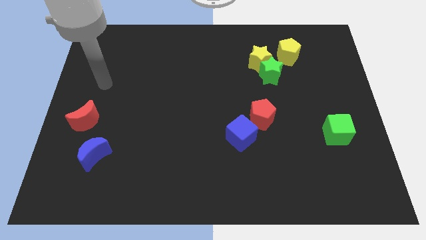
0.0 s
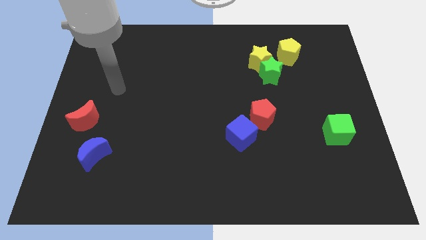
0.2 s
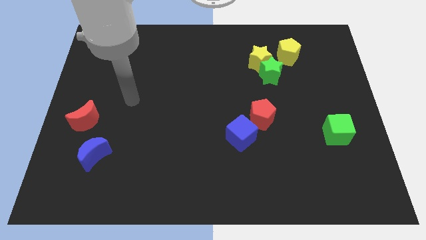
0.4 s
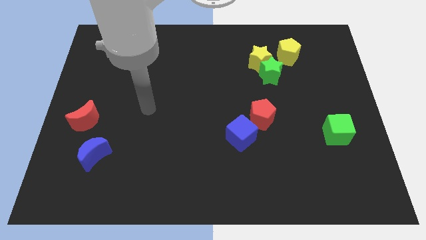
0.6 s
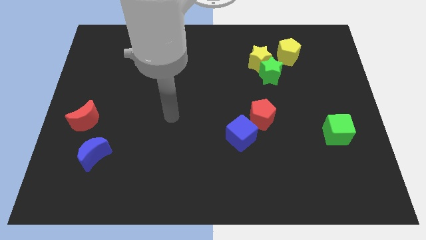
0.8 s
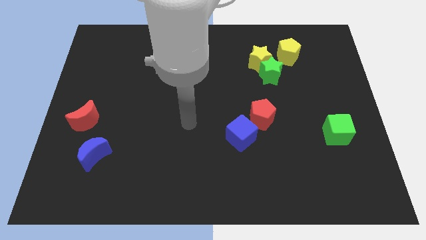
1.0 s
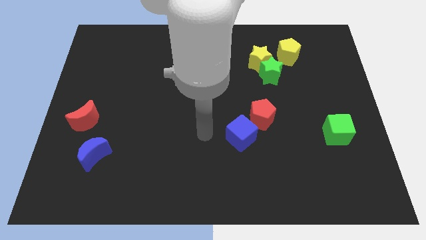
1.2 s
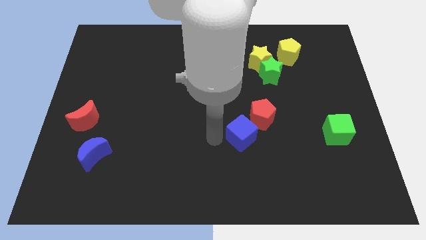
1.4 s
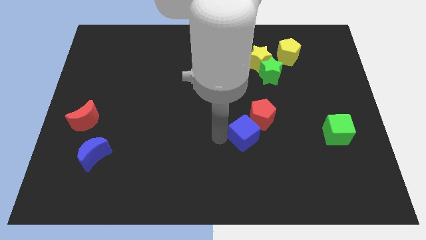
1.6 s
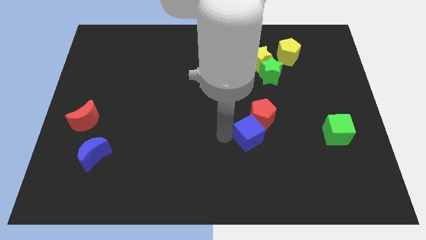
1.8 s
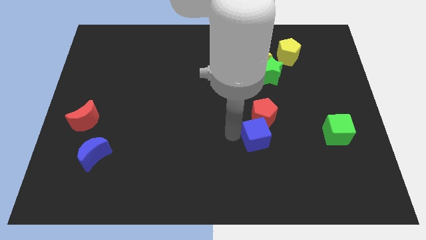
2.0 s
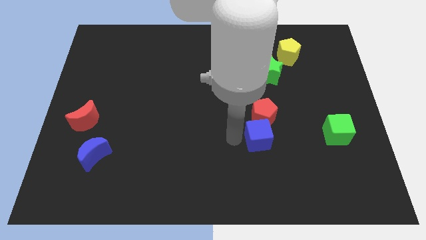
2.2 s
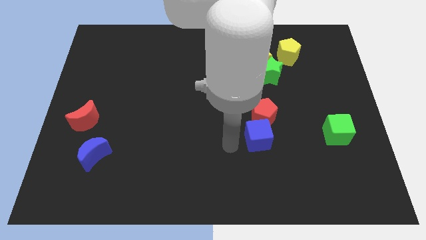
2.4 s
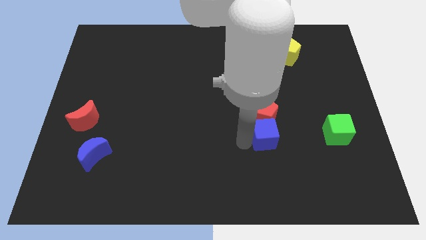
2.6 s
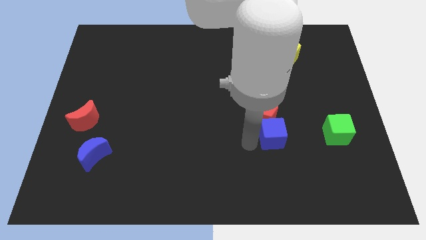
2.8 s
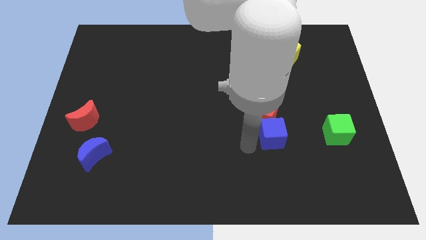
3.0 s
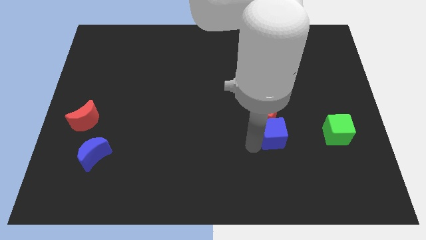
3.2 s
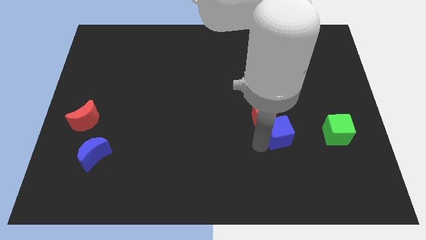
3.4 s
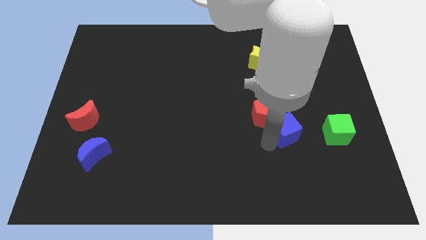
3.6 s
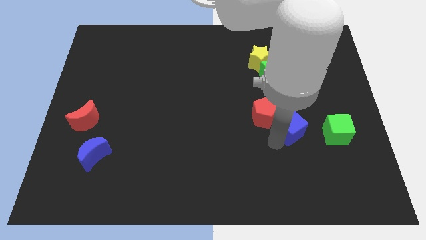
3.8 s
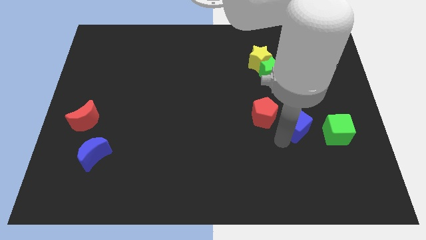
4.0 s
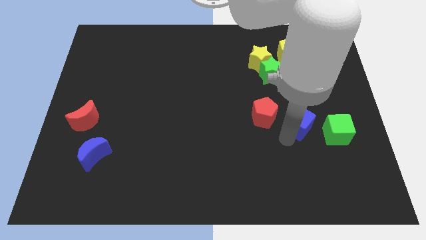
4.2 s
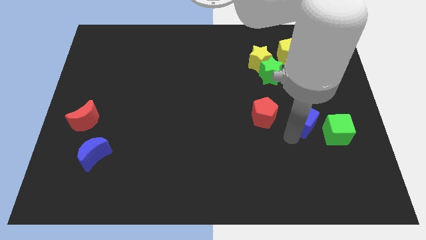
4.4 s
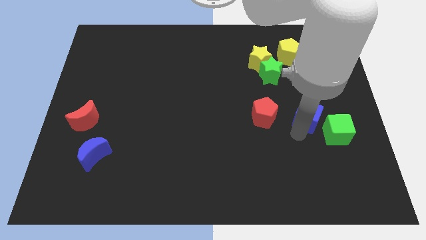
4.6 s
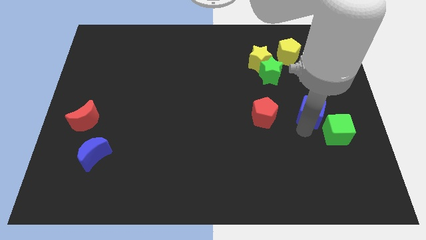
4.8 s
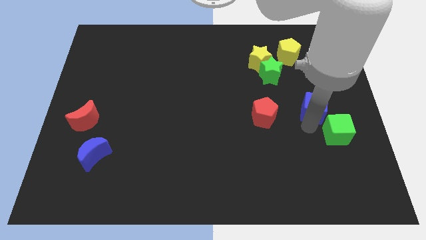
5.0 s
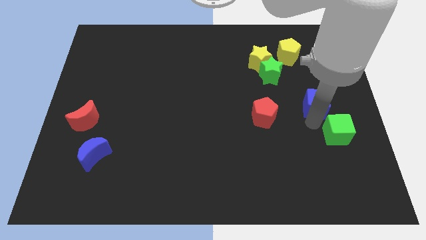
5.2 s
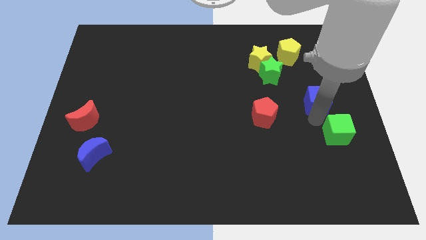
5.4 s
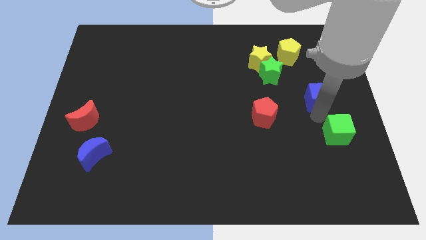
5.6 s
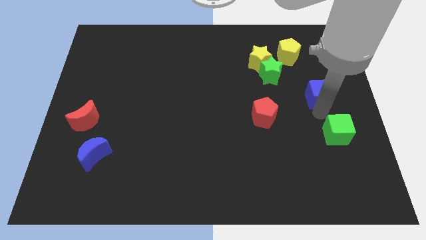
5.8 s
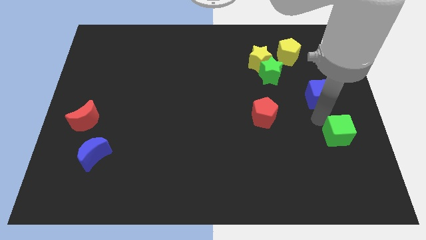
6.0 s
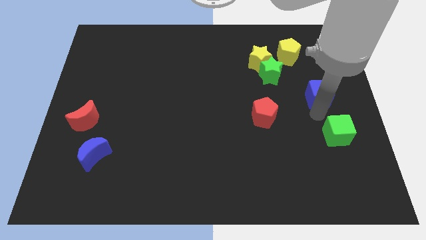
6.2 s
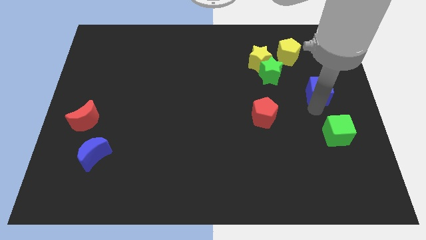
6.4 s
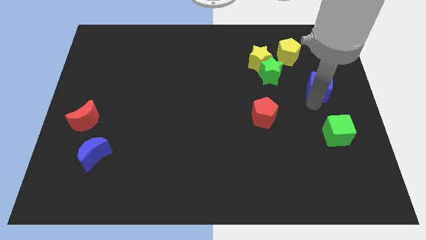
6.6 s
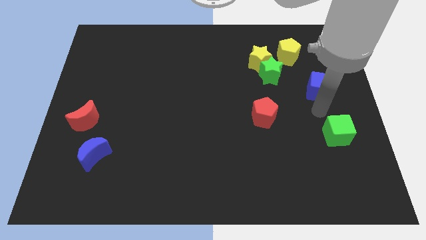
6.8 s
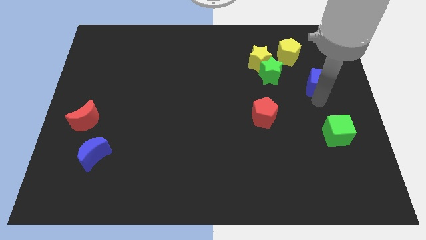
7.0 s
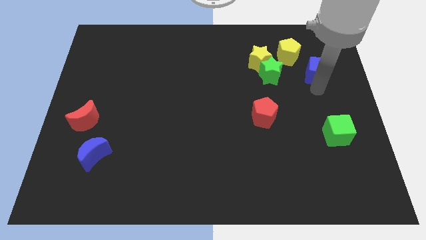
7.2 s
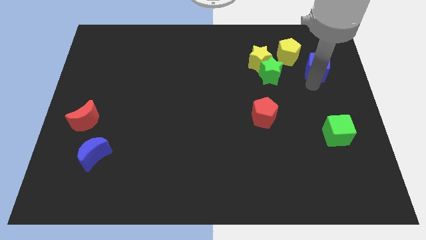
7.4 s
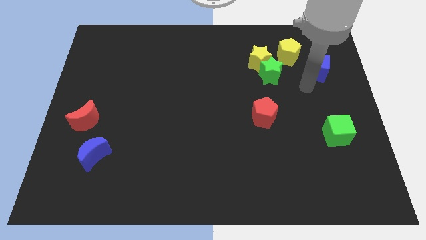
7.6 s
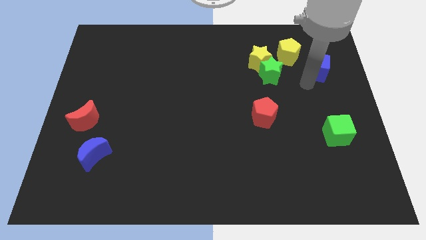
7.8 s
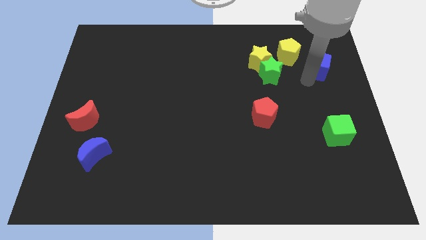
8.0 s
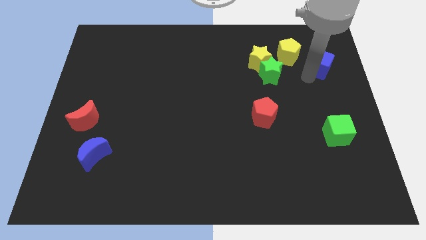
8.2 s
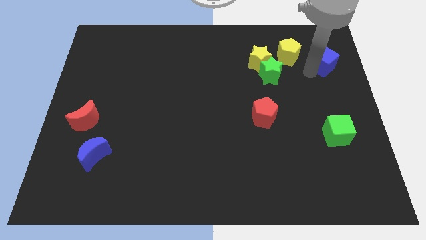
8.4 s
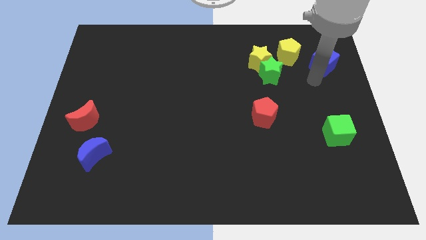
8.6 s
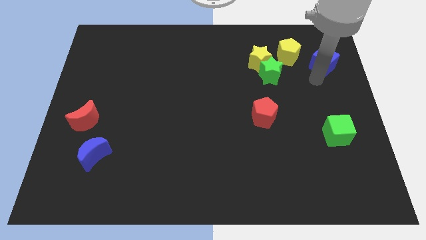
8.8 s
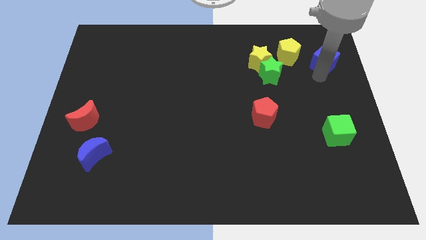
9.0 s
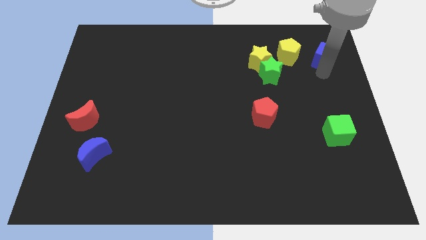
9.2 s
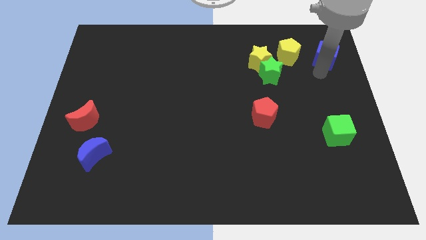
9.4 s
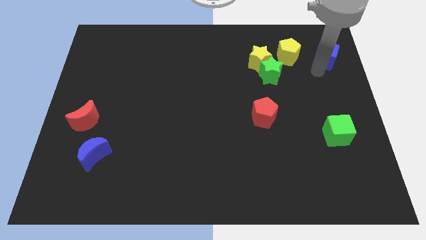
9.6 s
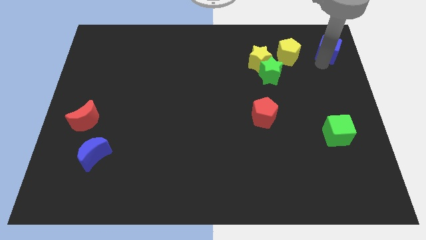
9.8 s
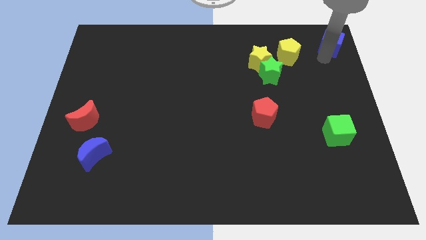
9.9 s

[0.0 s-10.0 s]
slide the blue cube to the top right

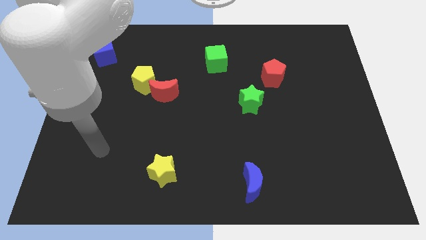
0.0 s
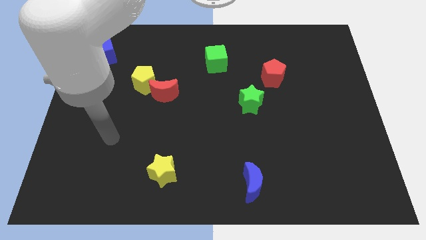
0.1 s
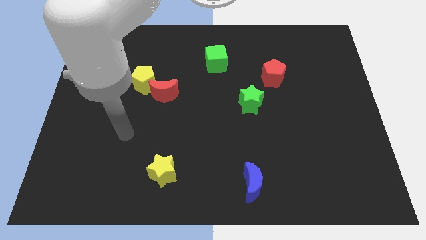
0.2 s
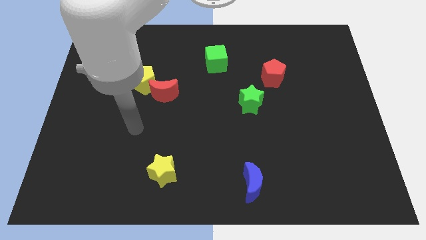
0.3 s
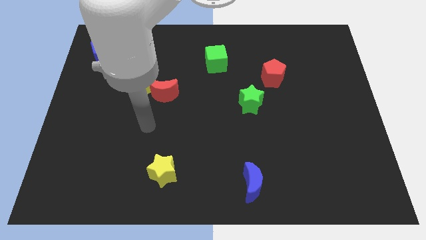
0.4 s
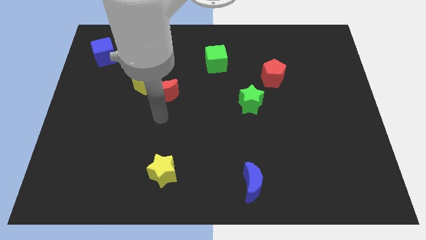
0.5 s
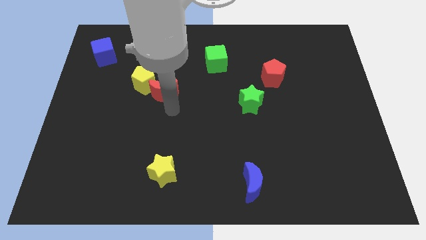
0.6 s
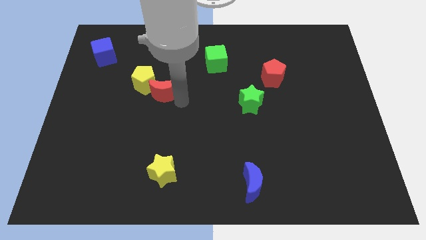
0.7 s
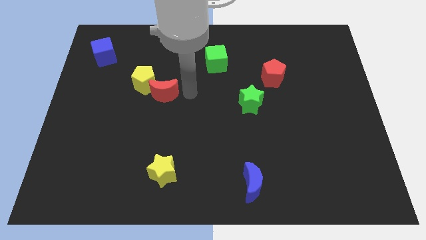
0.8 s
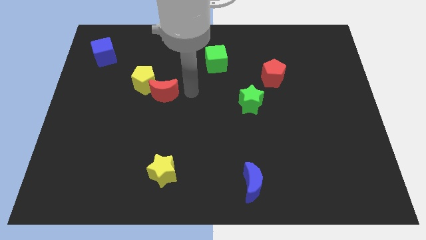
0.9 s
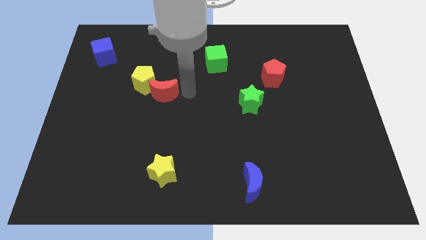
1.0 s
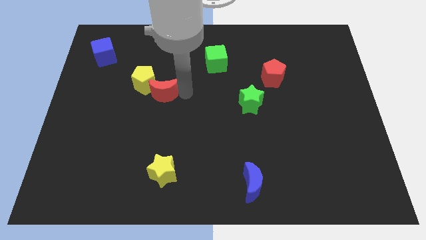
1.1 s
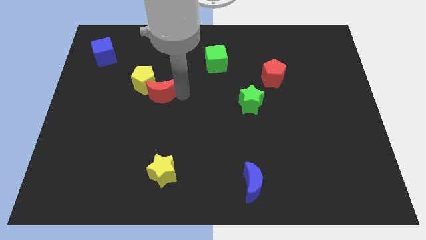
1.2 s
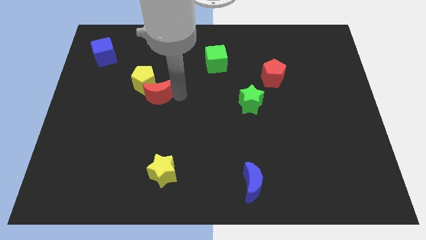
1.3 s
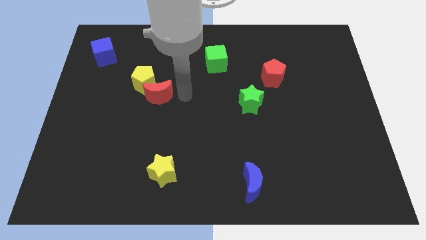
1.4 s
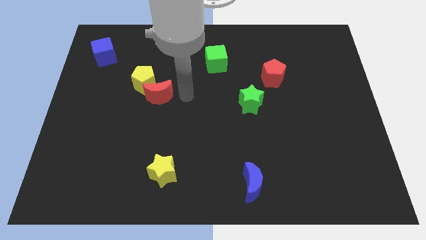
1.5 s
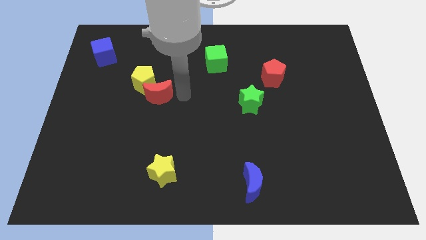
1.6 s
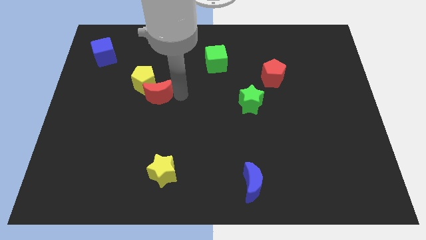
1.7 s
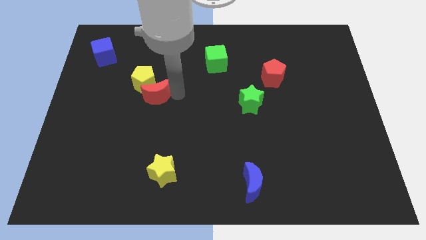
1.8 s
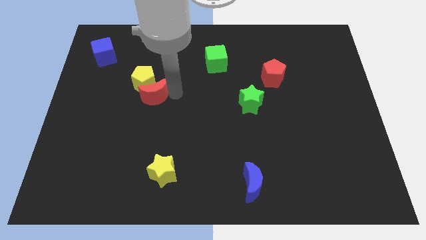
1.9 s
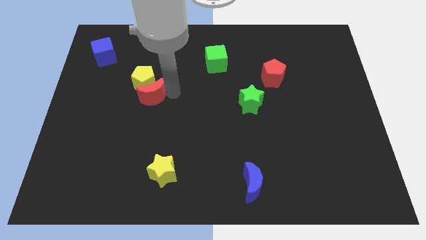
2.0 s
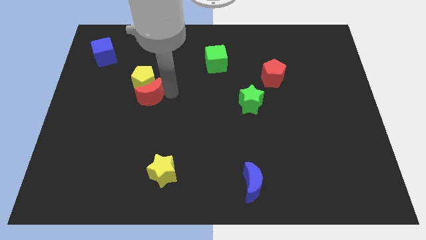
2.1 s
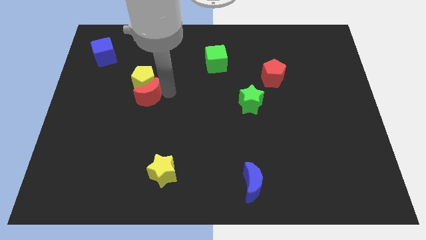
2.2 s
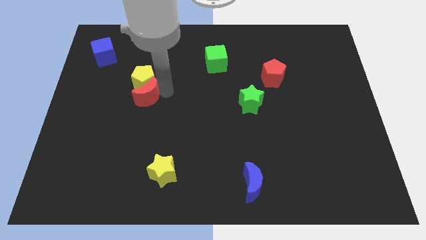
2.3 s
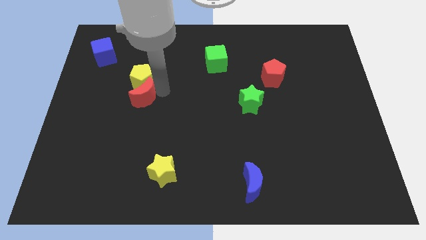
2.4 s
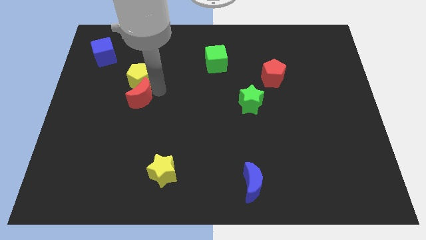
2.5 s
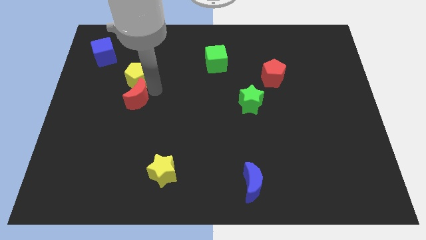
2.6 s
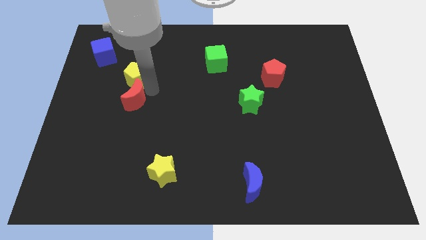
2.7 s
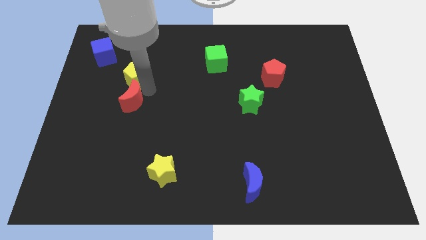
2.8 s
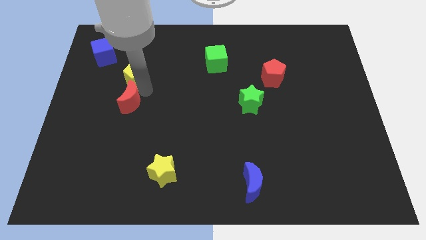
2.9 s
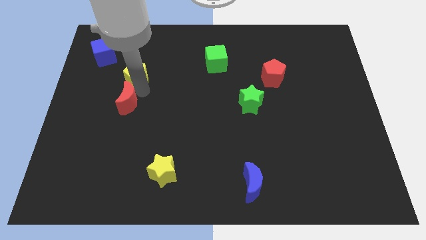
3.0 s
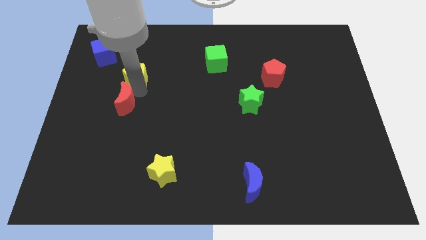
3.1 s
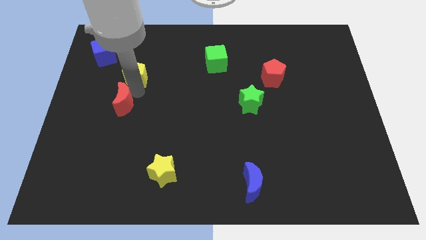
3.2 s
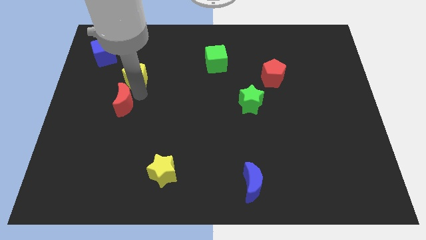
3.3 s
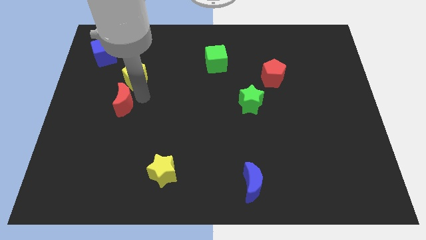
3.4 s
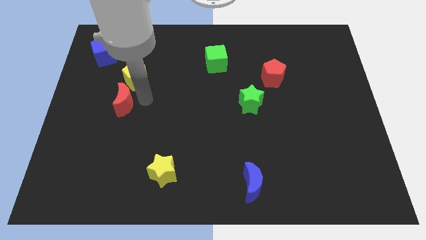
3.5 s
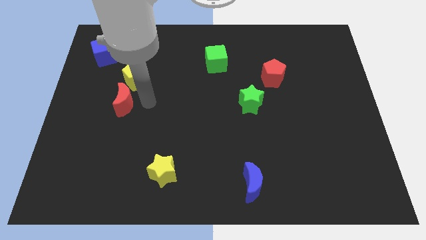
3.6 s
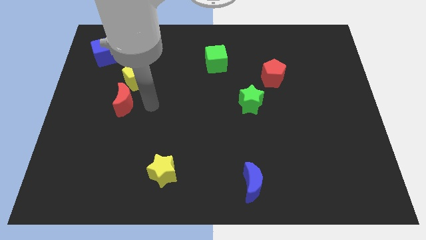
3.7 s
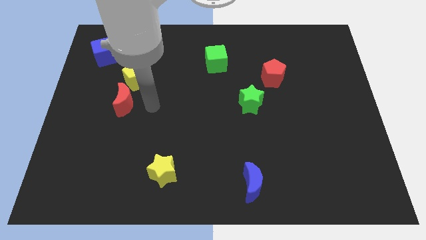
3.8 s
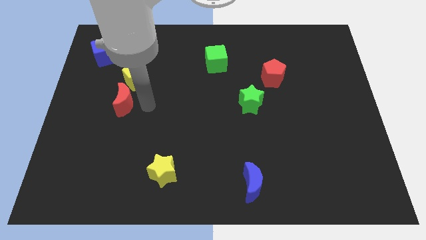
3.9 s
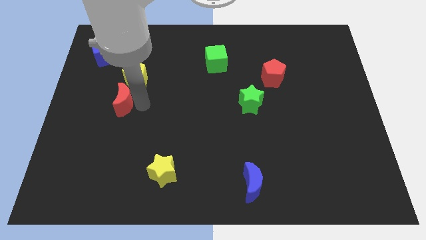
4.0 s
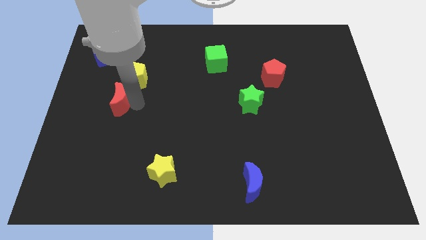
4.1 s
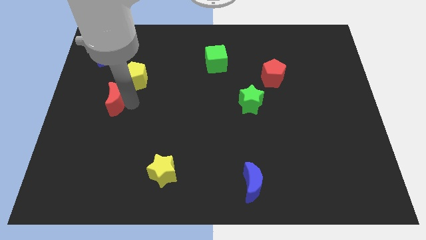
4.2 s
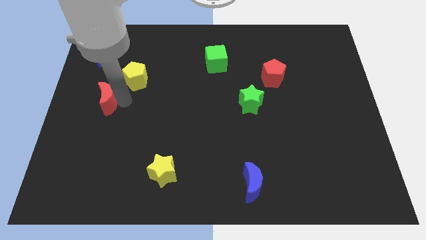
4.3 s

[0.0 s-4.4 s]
push the red moon to the center left
